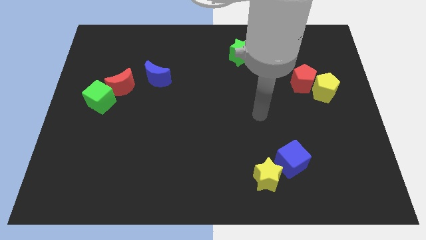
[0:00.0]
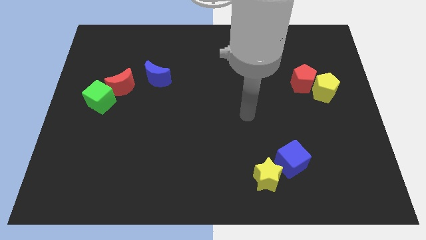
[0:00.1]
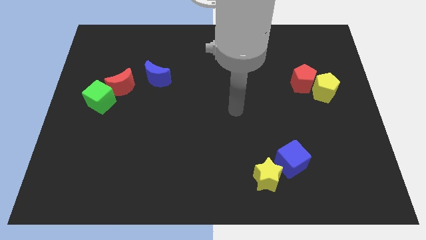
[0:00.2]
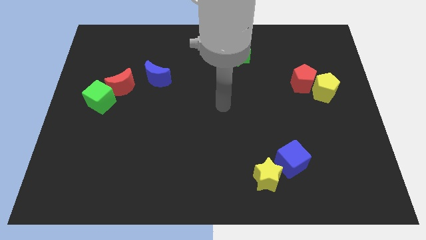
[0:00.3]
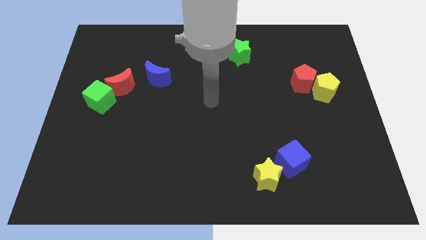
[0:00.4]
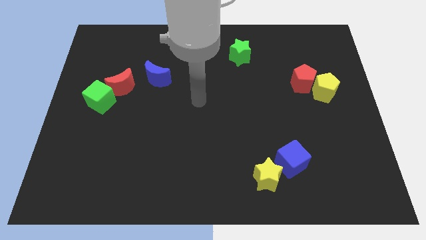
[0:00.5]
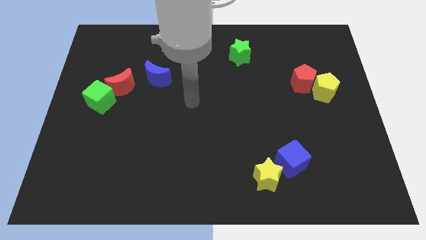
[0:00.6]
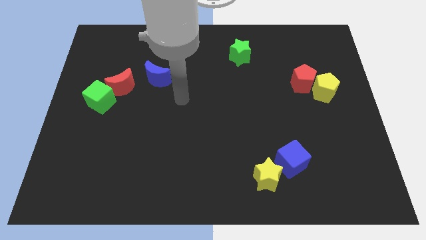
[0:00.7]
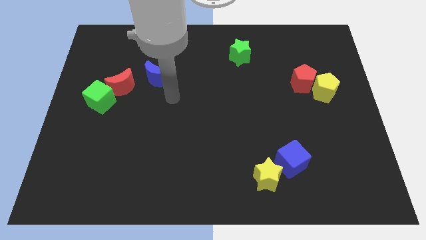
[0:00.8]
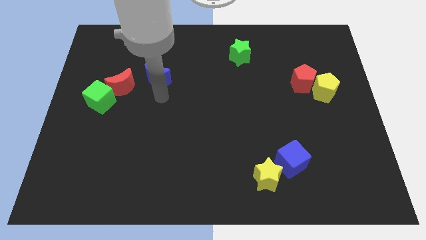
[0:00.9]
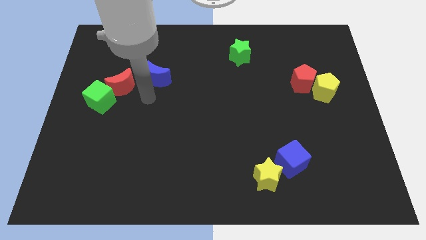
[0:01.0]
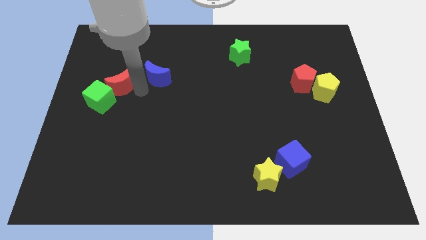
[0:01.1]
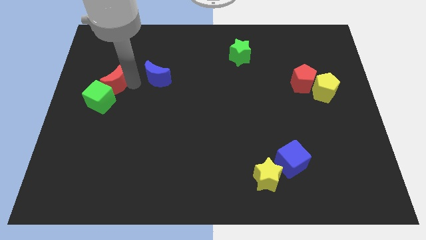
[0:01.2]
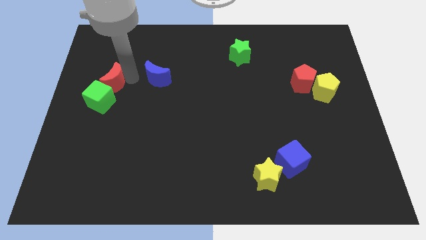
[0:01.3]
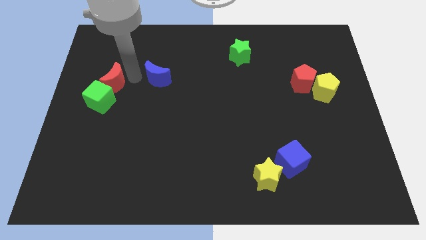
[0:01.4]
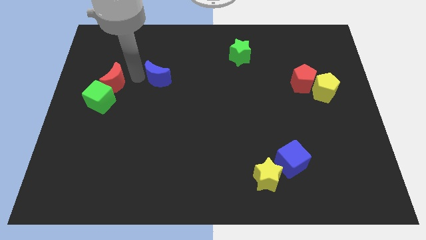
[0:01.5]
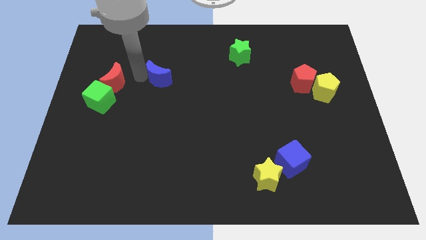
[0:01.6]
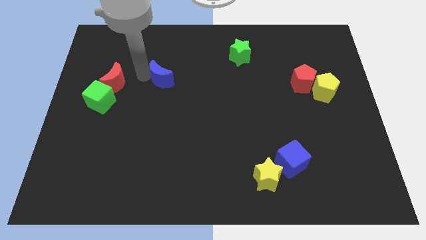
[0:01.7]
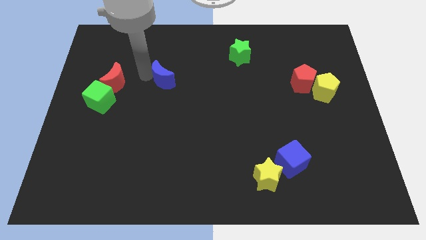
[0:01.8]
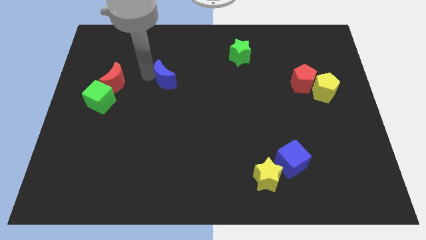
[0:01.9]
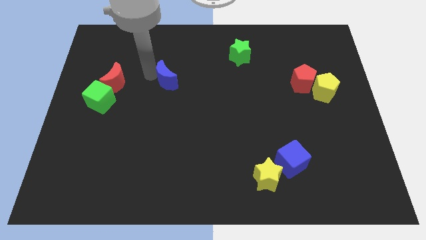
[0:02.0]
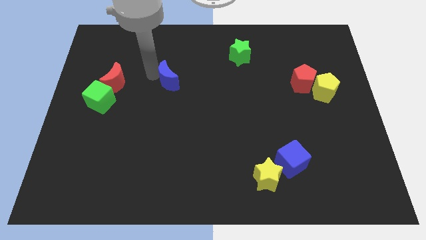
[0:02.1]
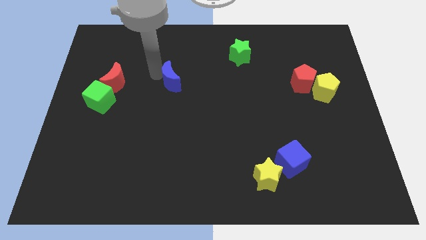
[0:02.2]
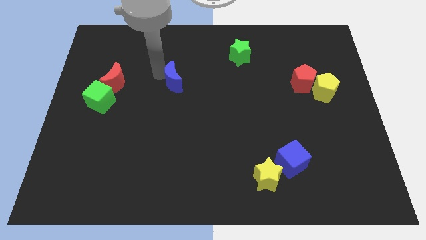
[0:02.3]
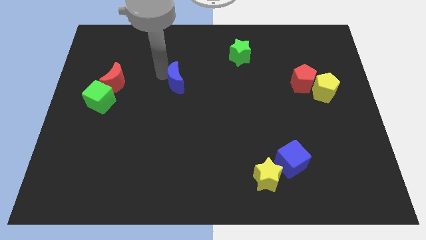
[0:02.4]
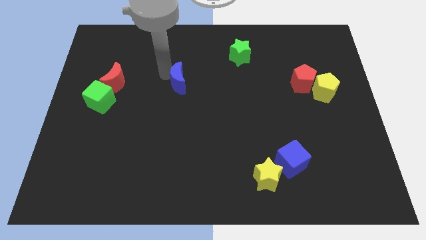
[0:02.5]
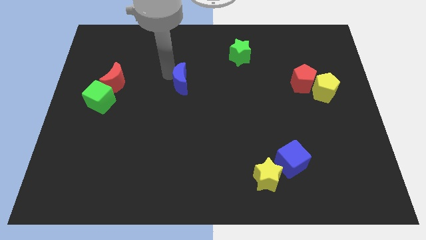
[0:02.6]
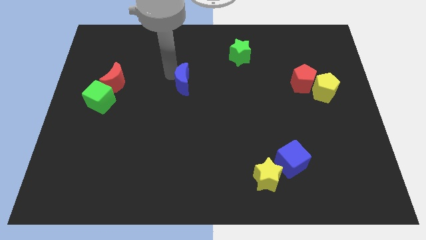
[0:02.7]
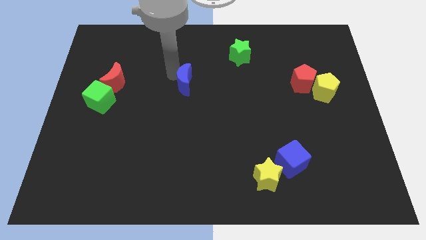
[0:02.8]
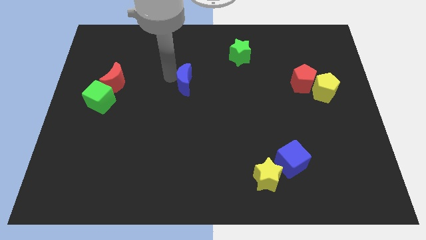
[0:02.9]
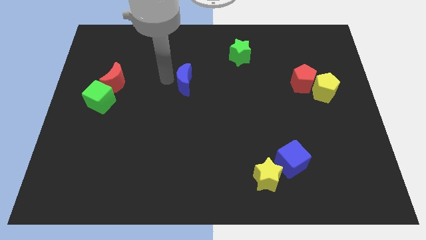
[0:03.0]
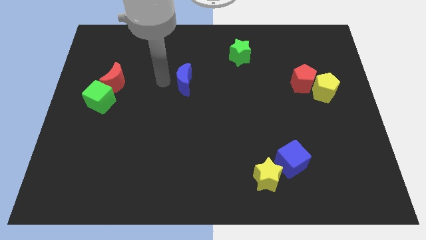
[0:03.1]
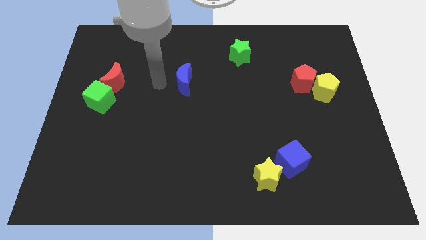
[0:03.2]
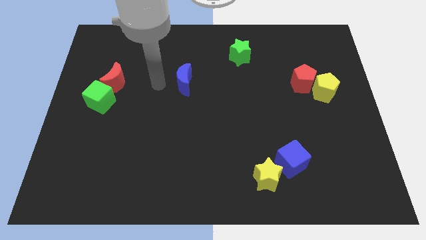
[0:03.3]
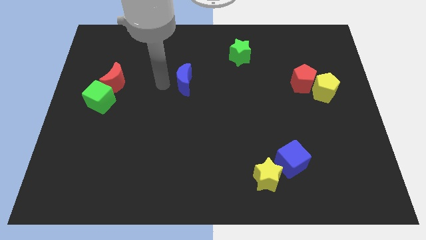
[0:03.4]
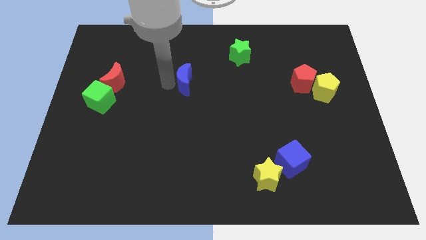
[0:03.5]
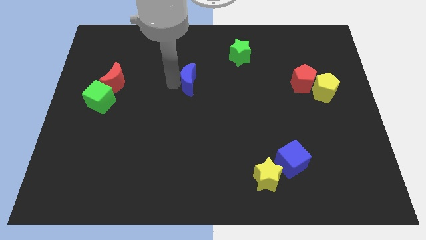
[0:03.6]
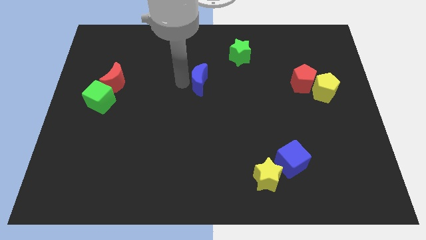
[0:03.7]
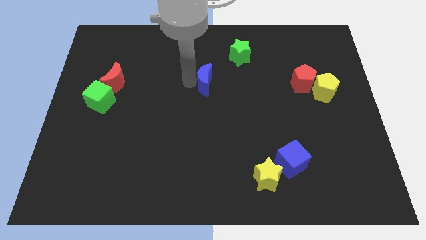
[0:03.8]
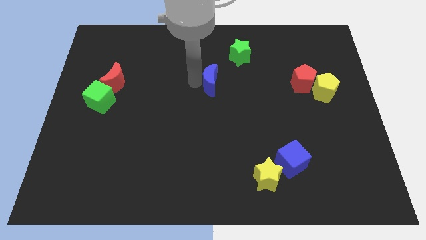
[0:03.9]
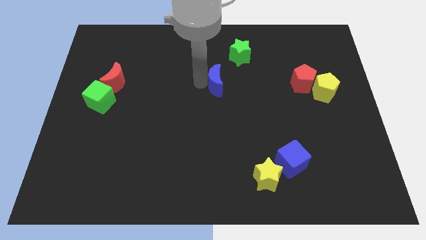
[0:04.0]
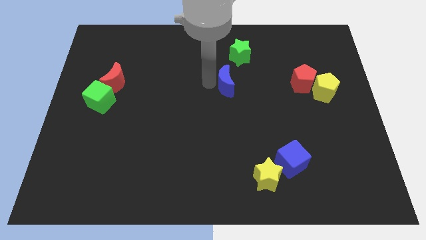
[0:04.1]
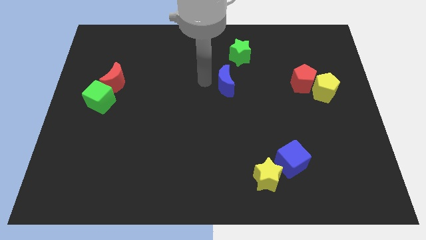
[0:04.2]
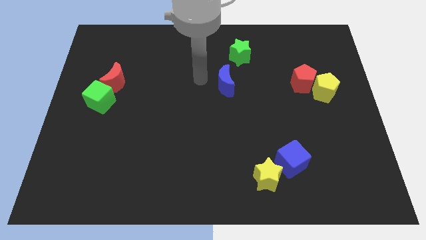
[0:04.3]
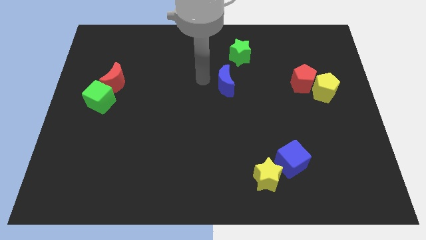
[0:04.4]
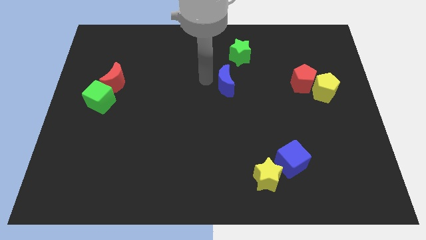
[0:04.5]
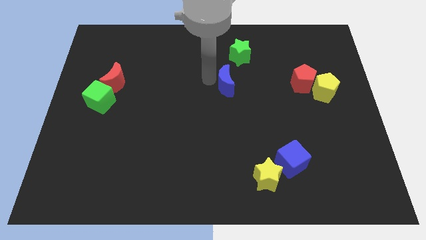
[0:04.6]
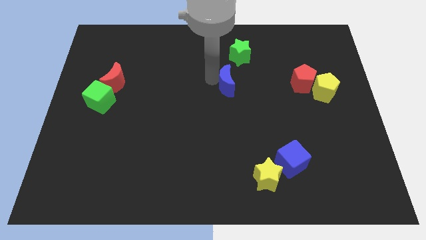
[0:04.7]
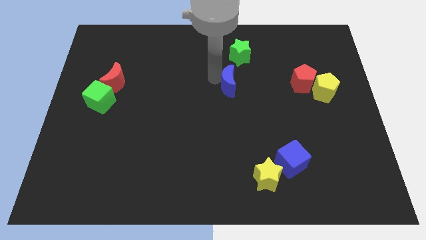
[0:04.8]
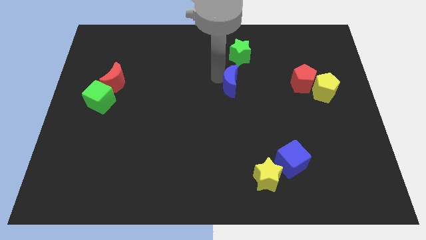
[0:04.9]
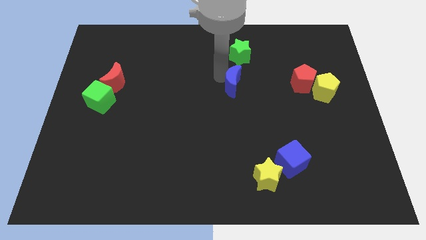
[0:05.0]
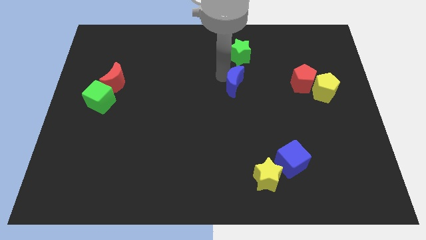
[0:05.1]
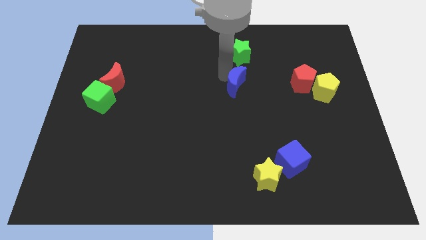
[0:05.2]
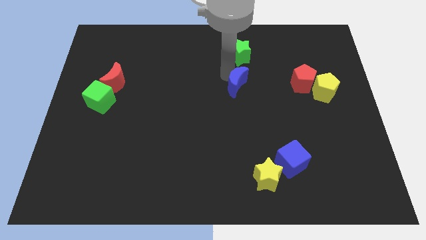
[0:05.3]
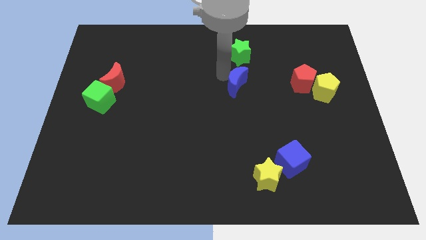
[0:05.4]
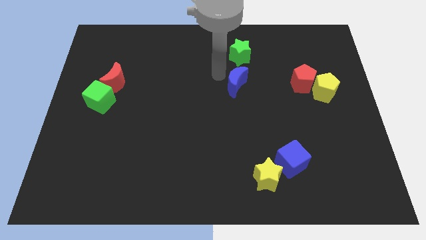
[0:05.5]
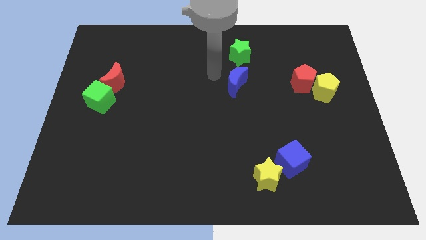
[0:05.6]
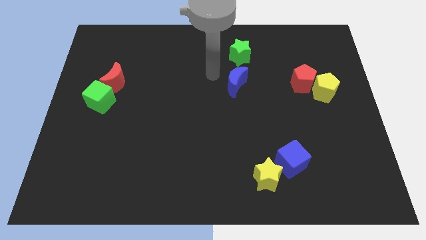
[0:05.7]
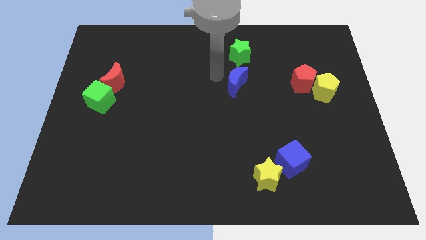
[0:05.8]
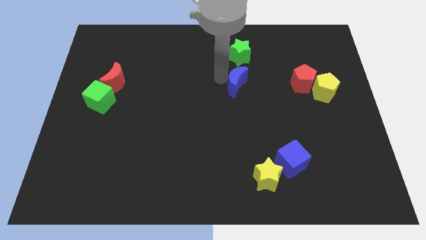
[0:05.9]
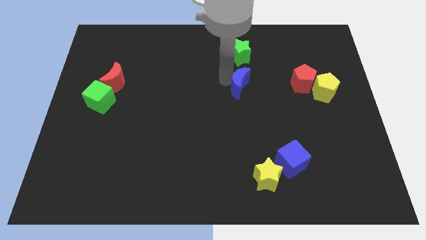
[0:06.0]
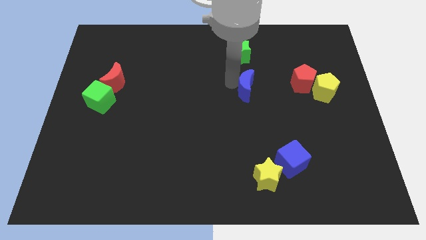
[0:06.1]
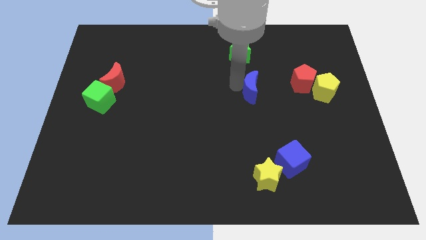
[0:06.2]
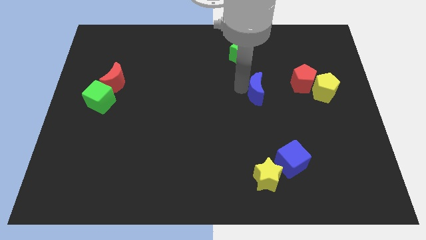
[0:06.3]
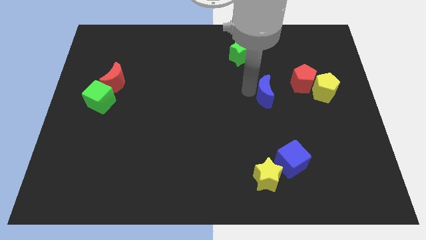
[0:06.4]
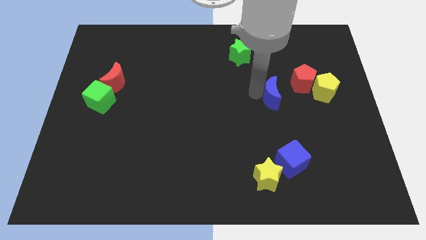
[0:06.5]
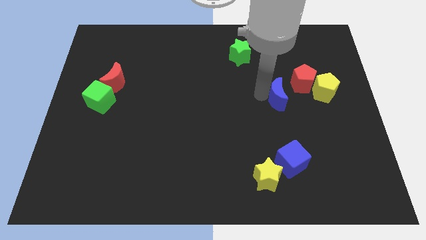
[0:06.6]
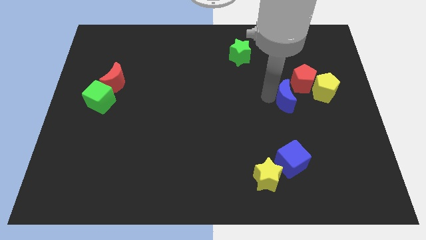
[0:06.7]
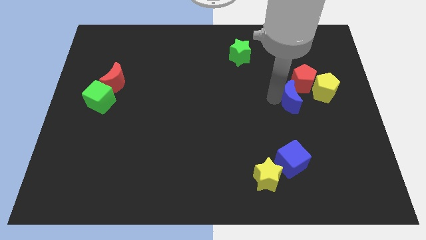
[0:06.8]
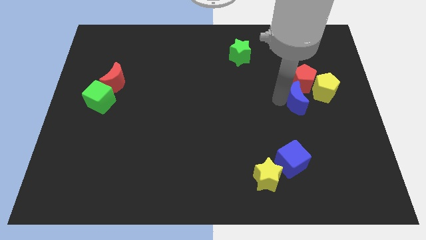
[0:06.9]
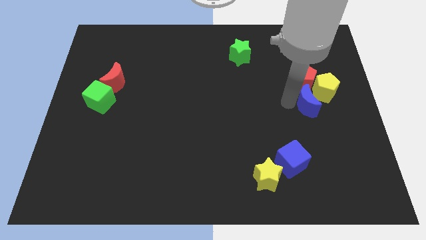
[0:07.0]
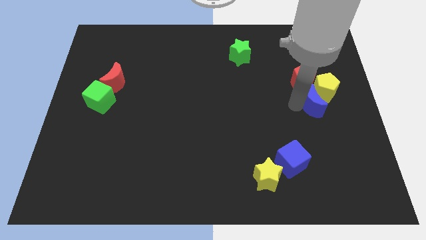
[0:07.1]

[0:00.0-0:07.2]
put the blue moon next to the yellow pentagon

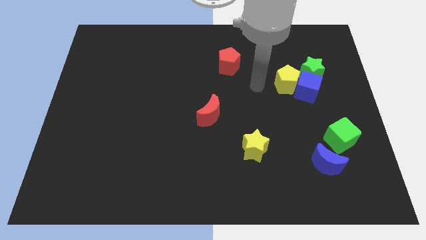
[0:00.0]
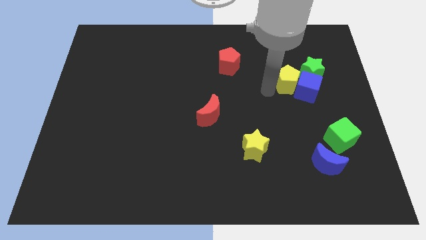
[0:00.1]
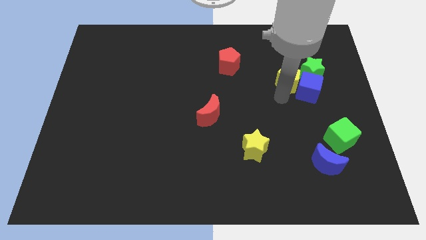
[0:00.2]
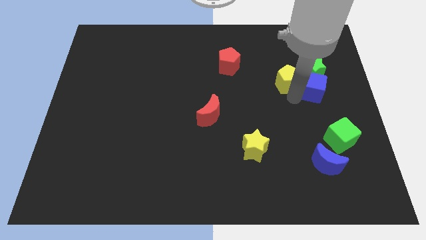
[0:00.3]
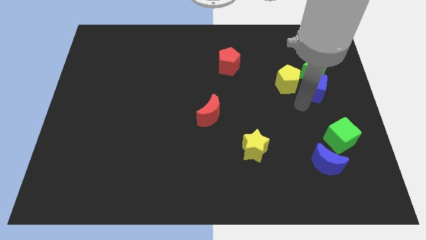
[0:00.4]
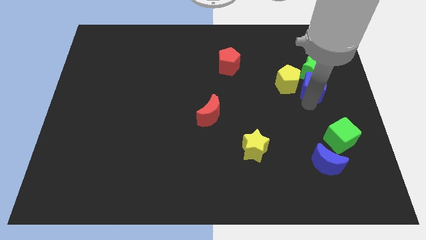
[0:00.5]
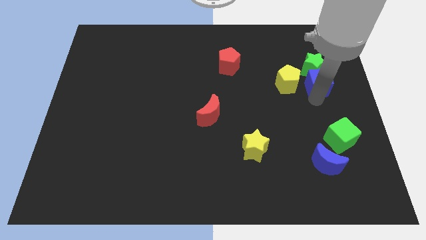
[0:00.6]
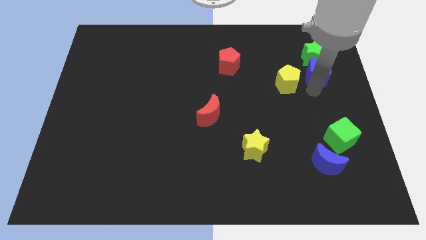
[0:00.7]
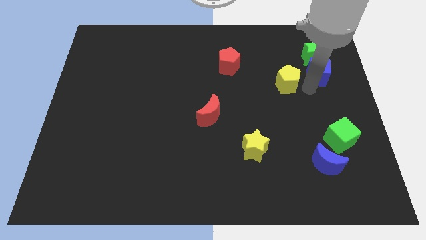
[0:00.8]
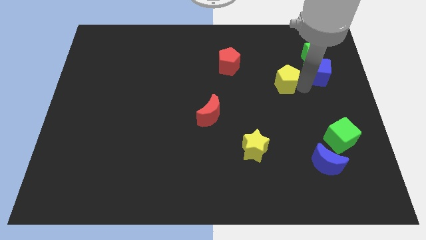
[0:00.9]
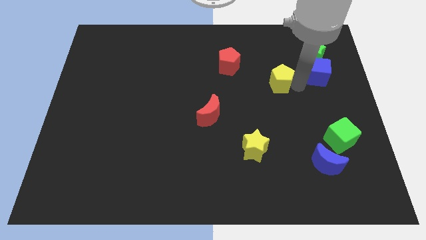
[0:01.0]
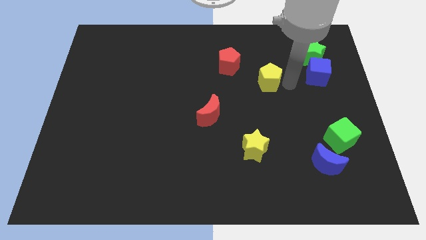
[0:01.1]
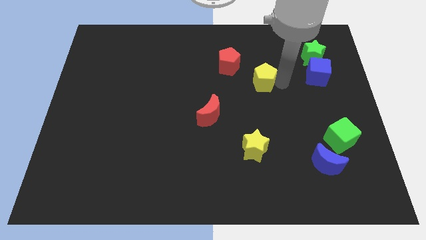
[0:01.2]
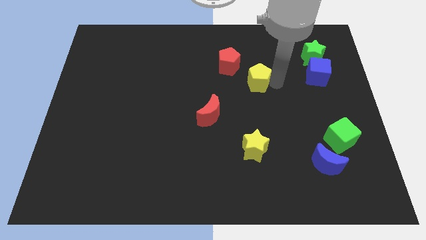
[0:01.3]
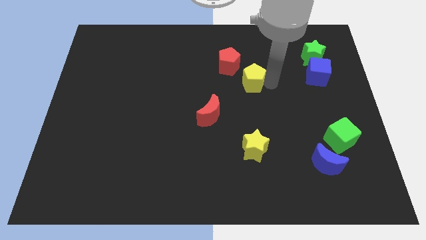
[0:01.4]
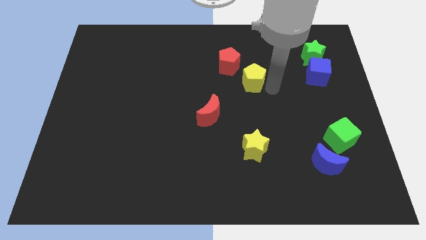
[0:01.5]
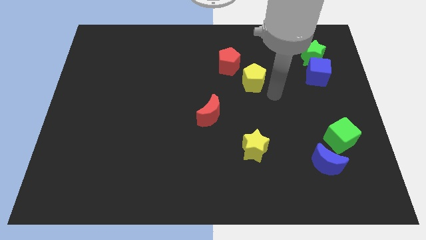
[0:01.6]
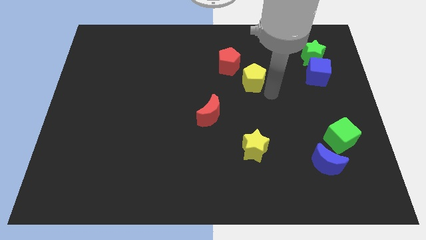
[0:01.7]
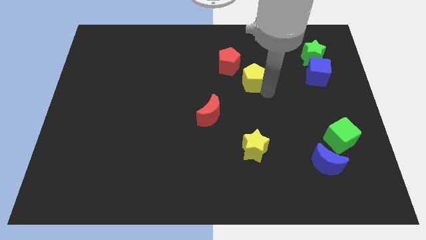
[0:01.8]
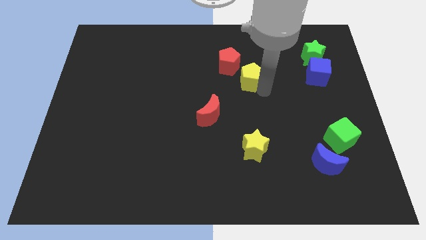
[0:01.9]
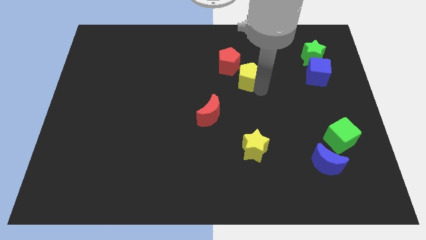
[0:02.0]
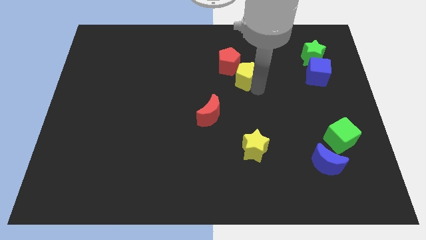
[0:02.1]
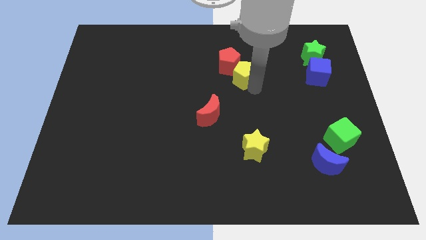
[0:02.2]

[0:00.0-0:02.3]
put the yellow pentagon close to the red pentagon
